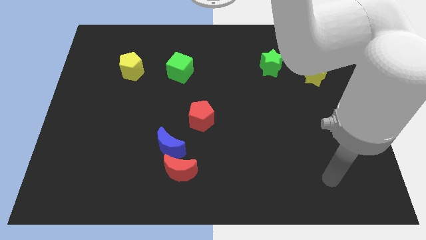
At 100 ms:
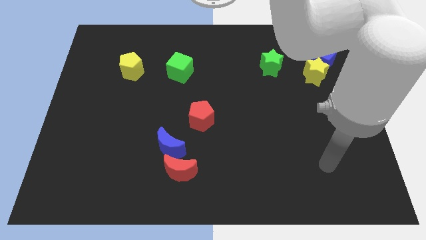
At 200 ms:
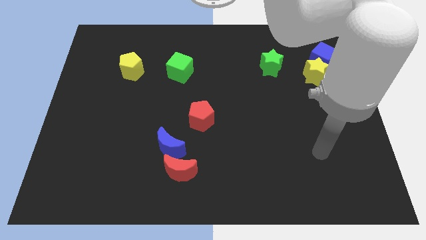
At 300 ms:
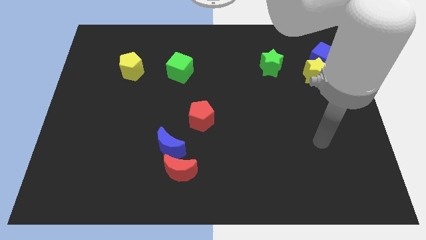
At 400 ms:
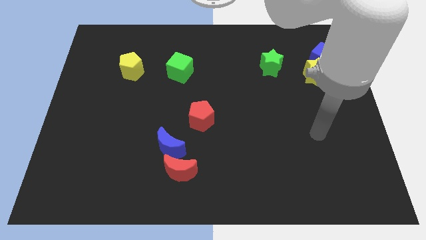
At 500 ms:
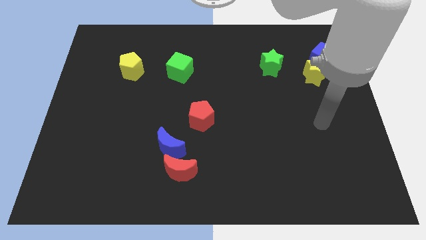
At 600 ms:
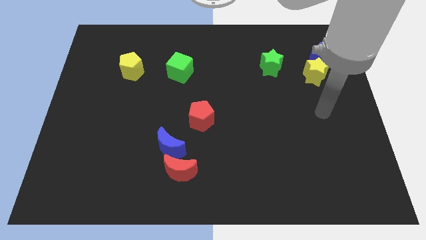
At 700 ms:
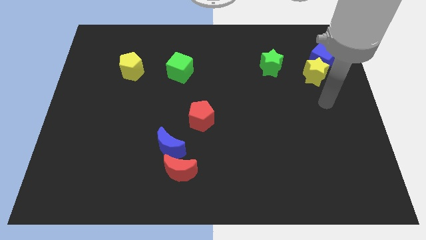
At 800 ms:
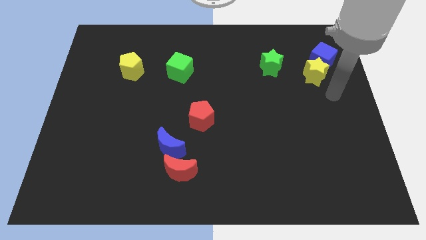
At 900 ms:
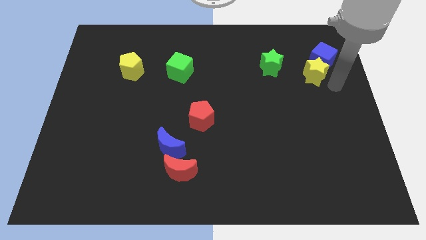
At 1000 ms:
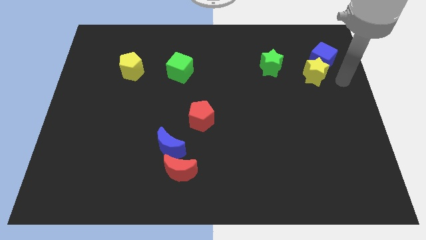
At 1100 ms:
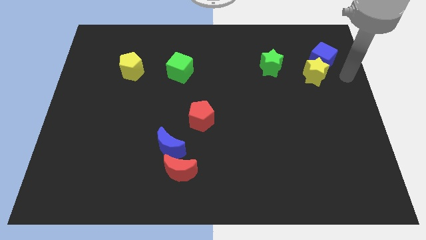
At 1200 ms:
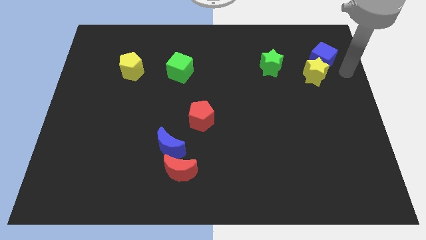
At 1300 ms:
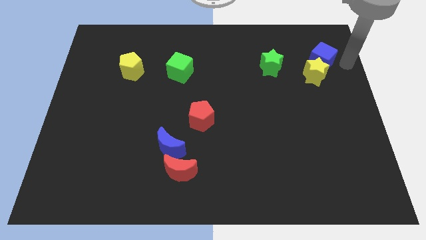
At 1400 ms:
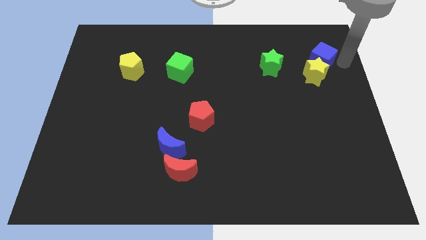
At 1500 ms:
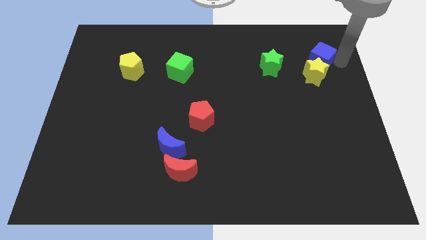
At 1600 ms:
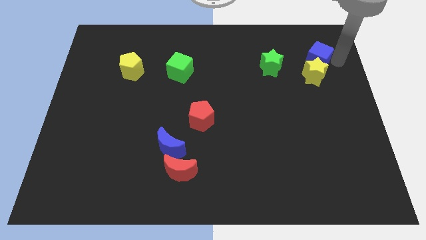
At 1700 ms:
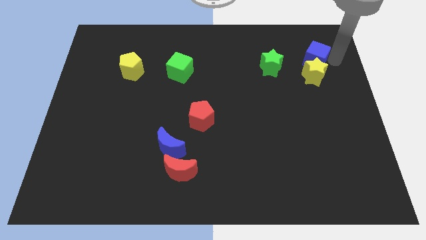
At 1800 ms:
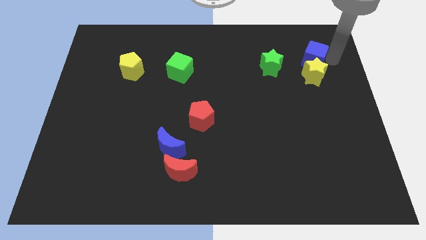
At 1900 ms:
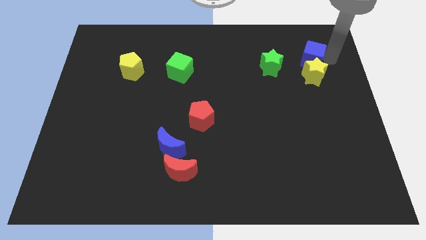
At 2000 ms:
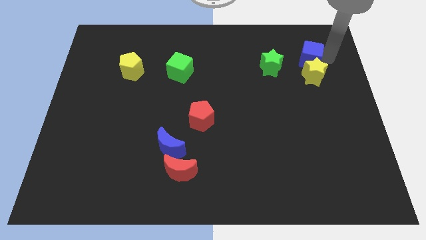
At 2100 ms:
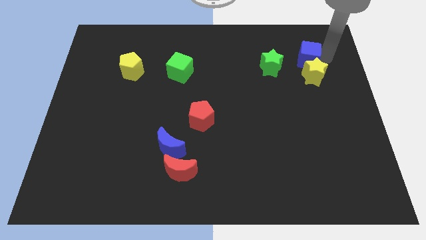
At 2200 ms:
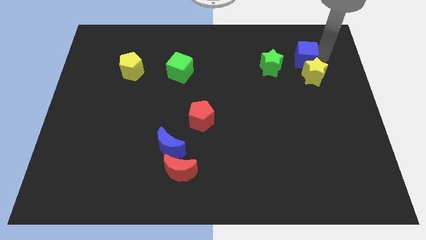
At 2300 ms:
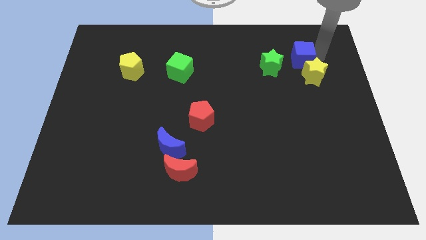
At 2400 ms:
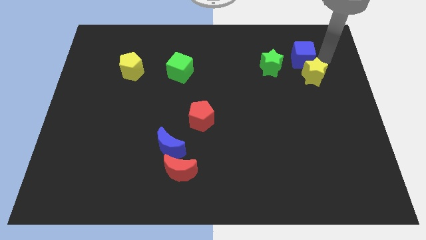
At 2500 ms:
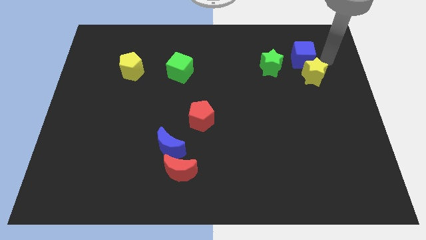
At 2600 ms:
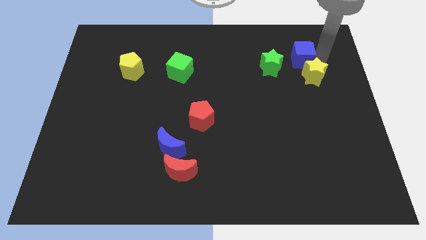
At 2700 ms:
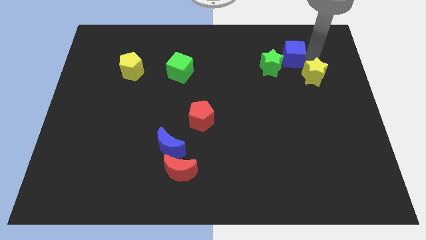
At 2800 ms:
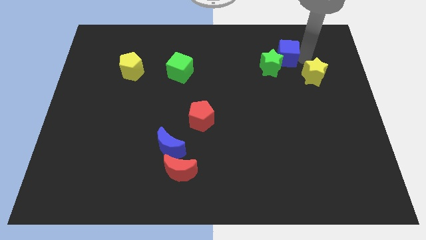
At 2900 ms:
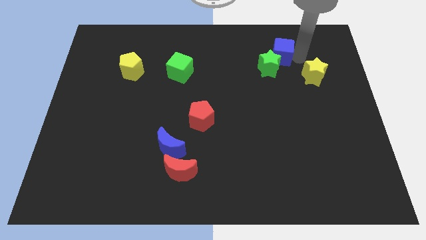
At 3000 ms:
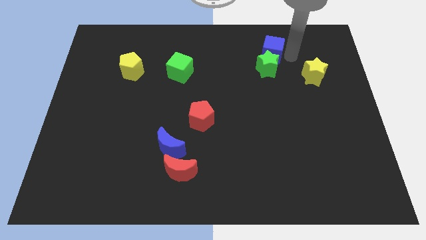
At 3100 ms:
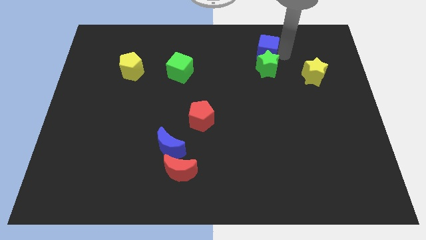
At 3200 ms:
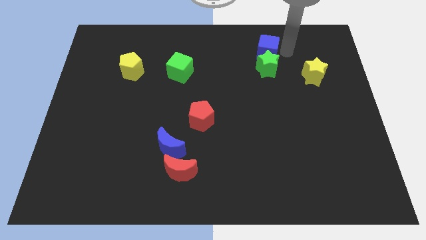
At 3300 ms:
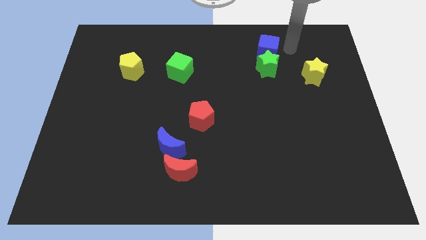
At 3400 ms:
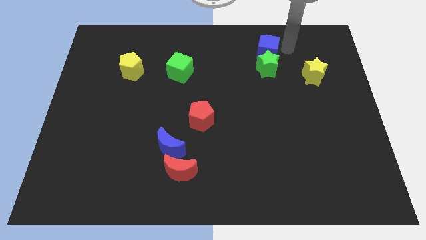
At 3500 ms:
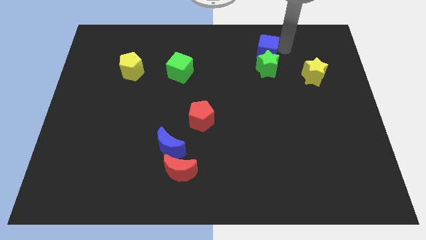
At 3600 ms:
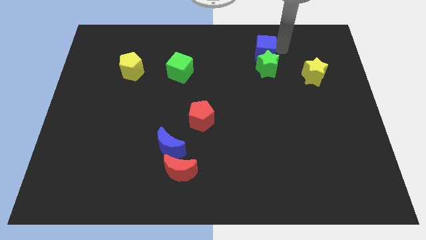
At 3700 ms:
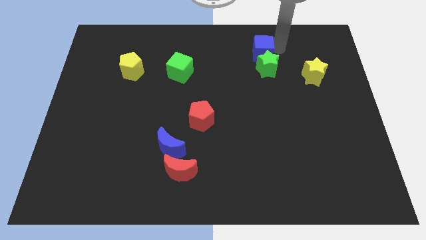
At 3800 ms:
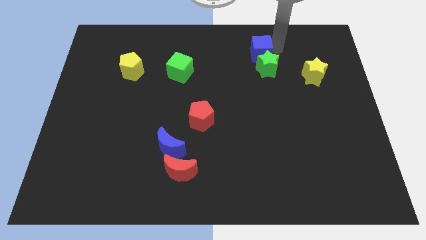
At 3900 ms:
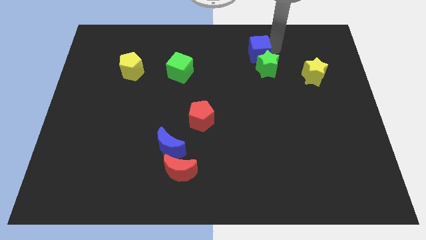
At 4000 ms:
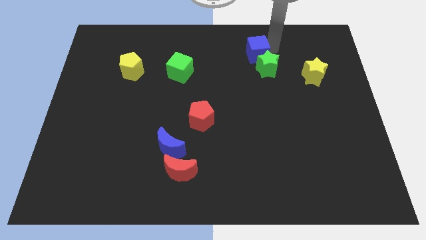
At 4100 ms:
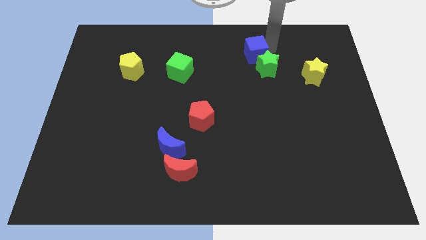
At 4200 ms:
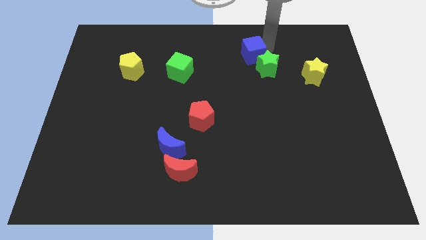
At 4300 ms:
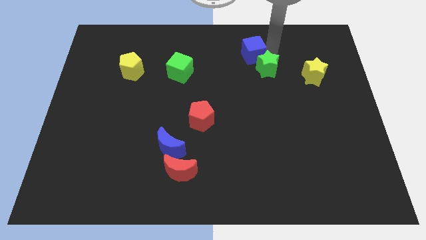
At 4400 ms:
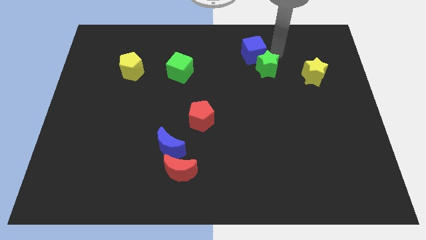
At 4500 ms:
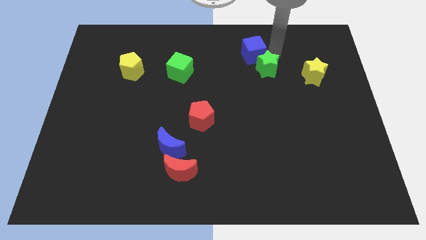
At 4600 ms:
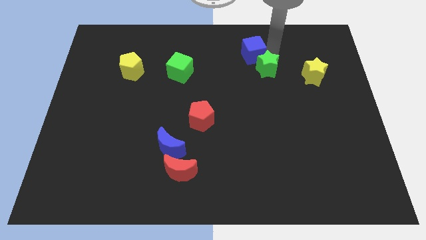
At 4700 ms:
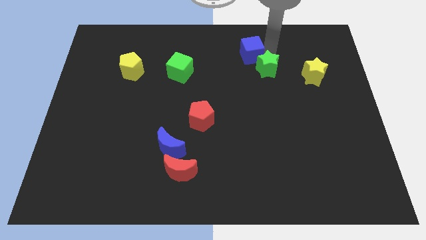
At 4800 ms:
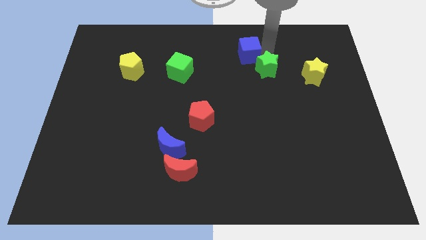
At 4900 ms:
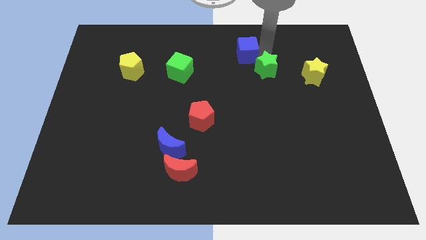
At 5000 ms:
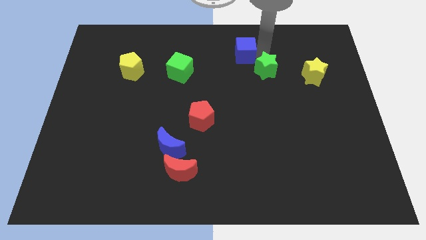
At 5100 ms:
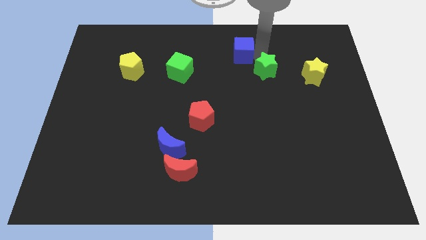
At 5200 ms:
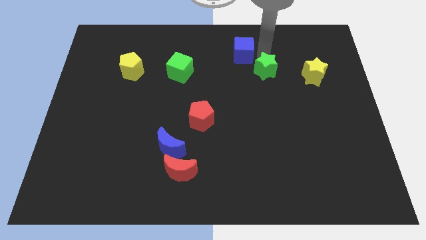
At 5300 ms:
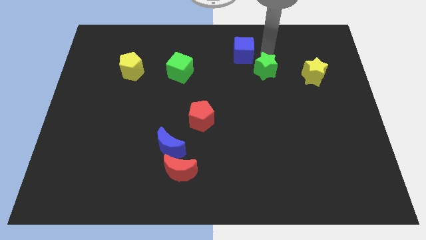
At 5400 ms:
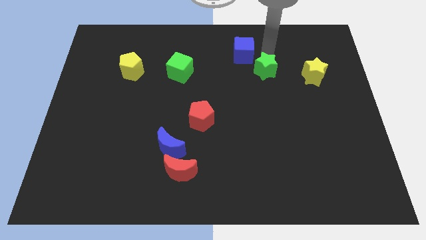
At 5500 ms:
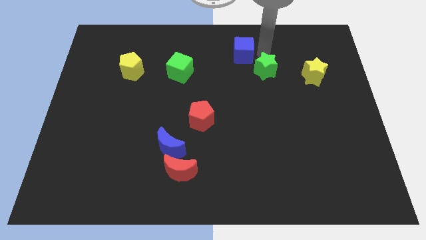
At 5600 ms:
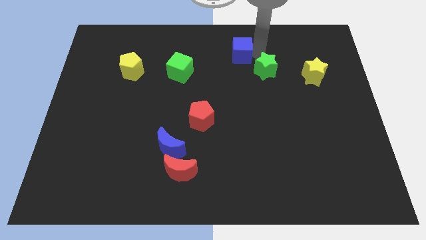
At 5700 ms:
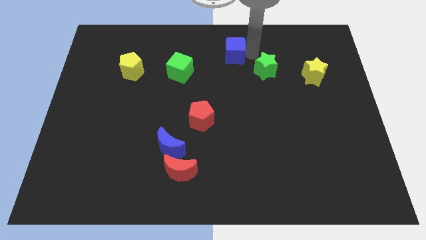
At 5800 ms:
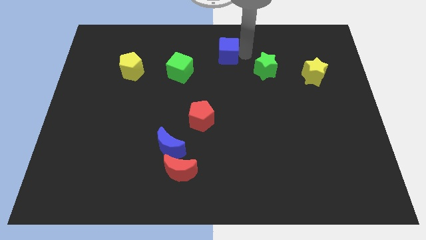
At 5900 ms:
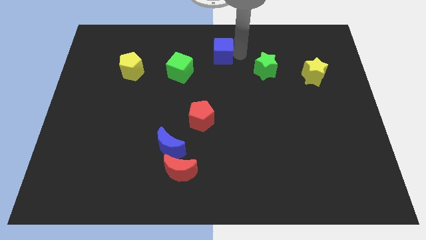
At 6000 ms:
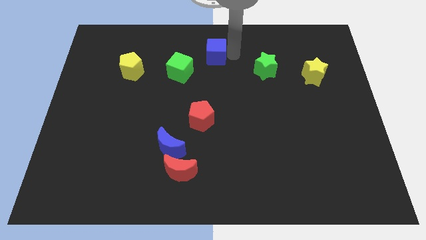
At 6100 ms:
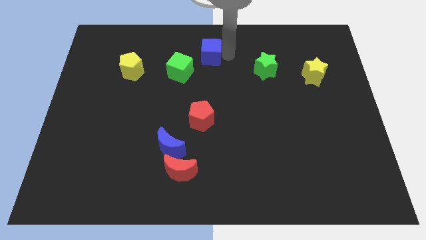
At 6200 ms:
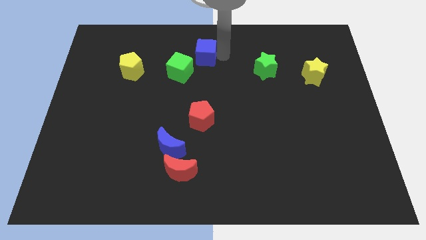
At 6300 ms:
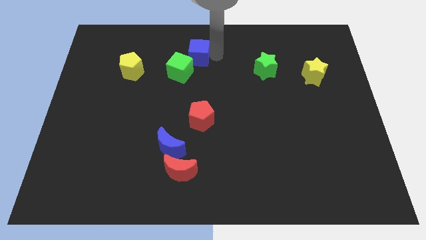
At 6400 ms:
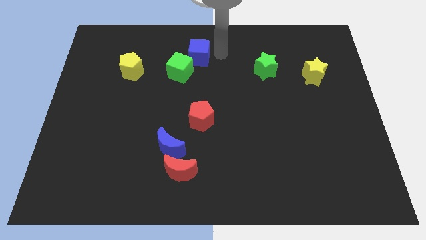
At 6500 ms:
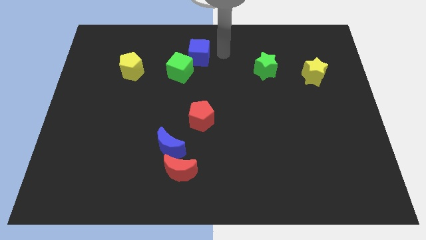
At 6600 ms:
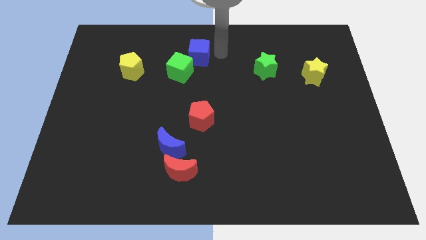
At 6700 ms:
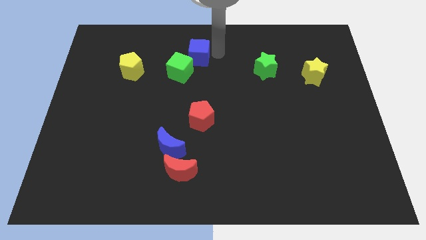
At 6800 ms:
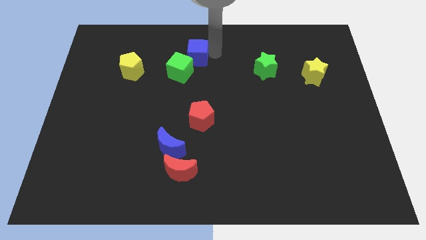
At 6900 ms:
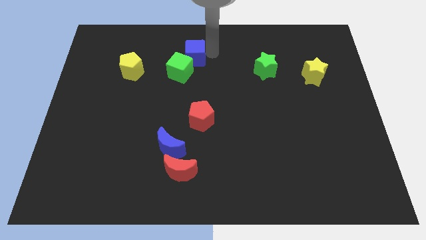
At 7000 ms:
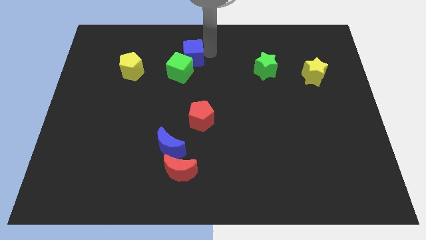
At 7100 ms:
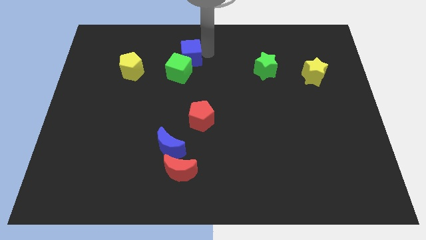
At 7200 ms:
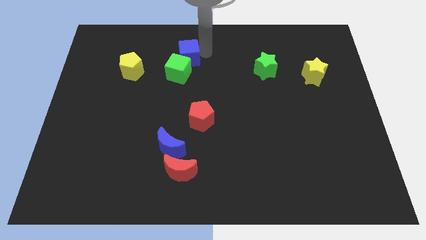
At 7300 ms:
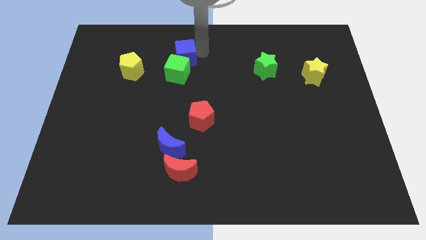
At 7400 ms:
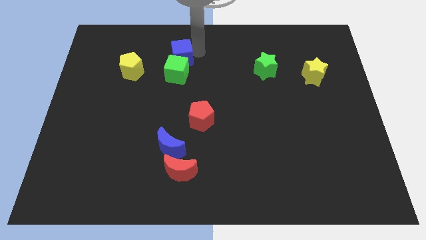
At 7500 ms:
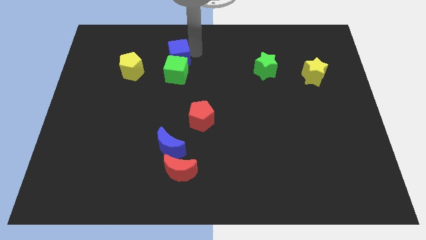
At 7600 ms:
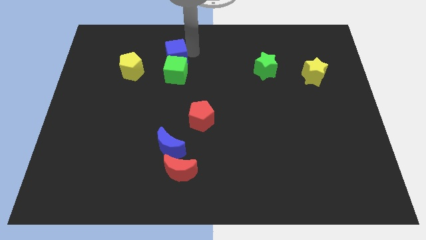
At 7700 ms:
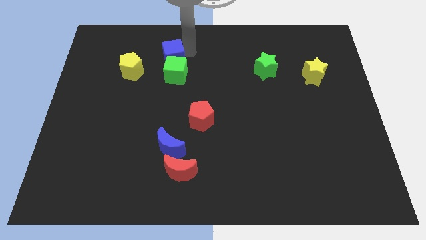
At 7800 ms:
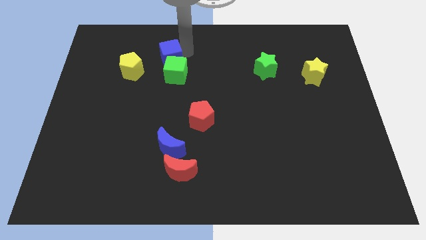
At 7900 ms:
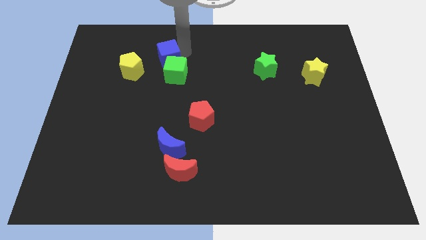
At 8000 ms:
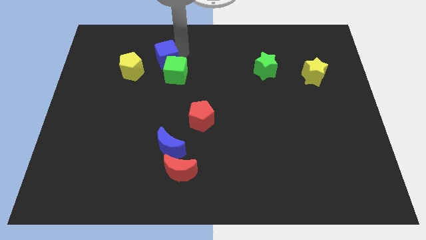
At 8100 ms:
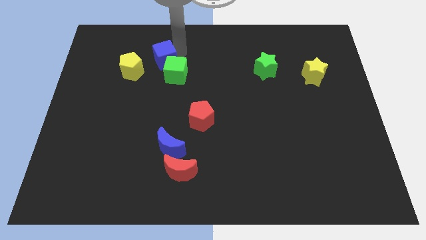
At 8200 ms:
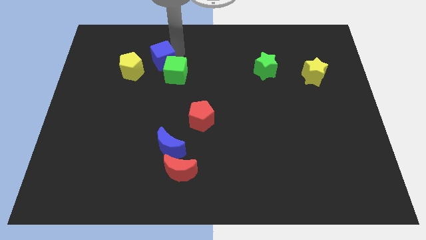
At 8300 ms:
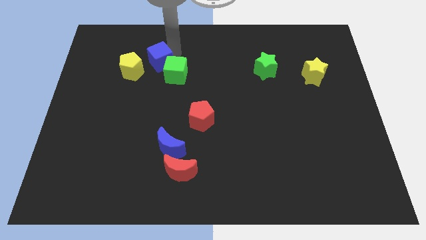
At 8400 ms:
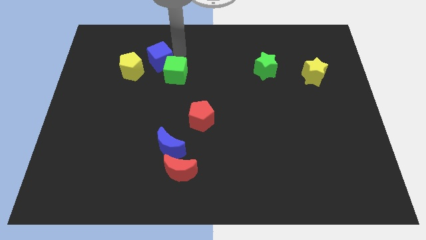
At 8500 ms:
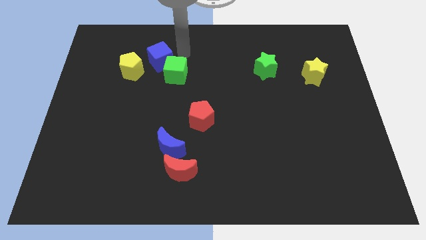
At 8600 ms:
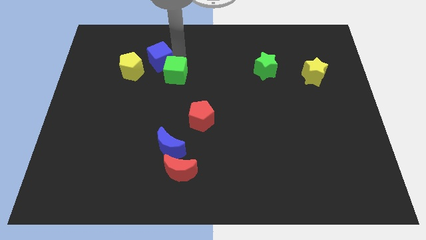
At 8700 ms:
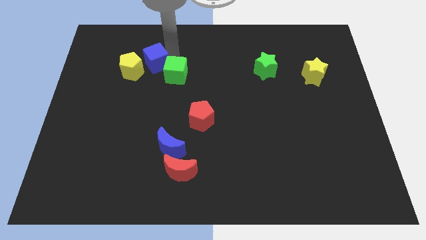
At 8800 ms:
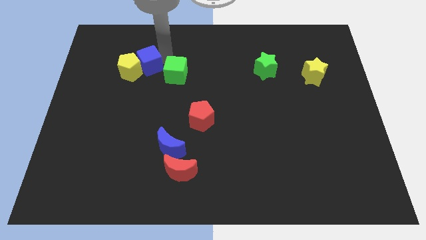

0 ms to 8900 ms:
move the blue cube towards the yellow pentagon
